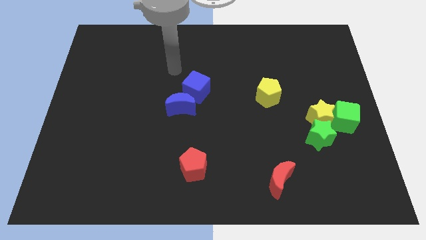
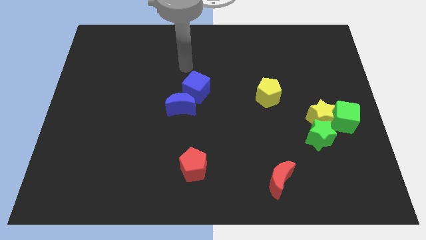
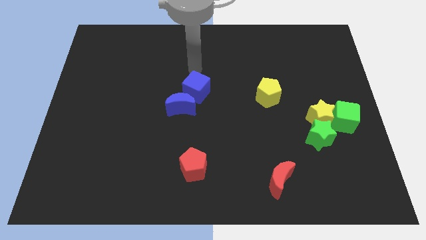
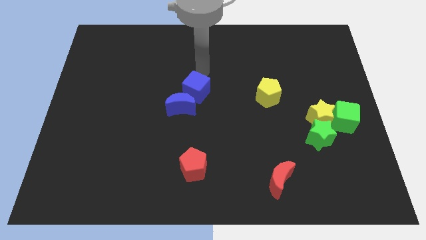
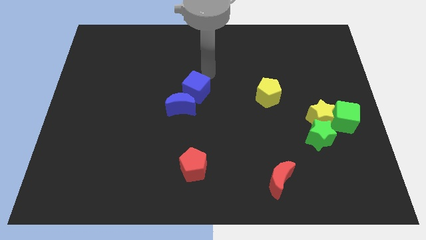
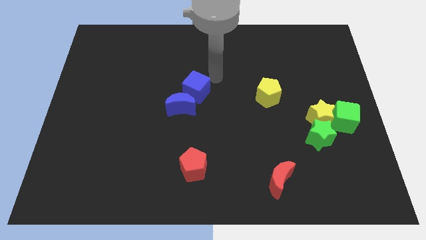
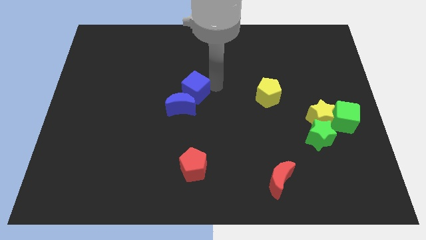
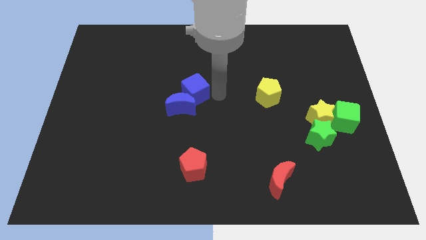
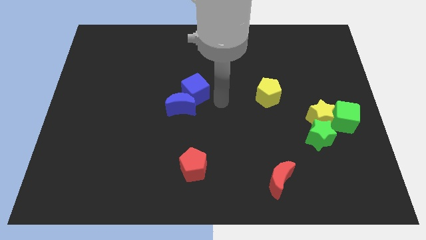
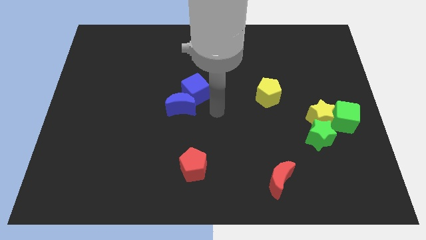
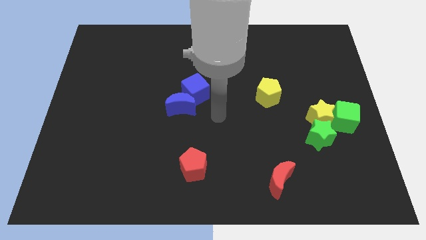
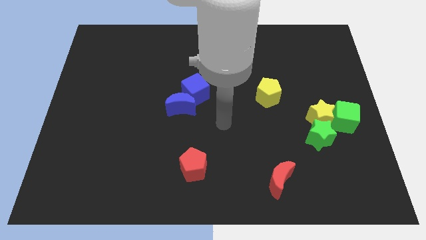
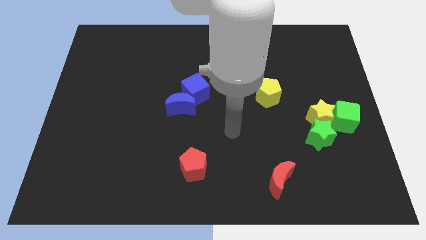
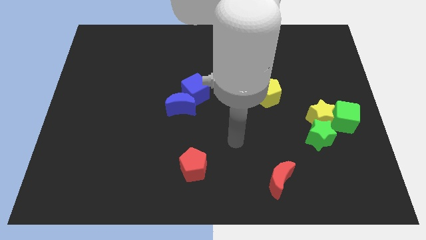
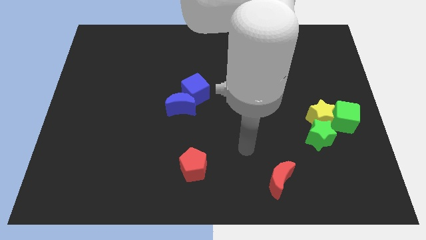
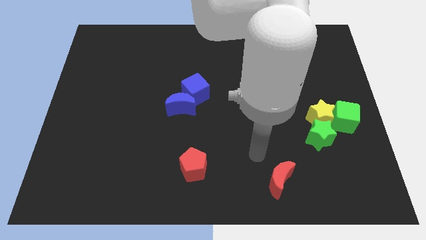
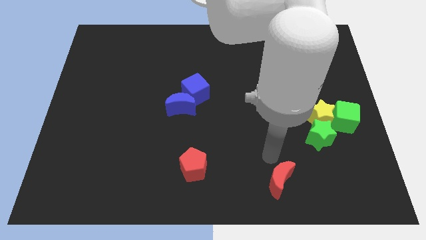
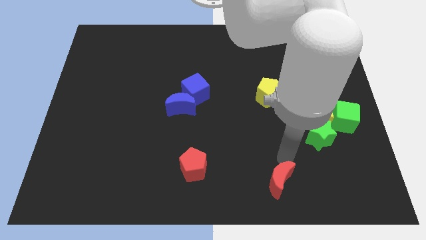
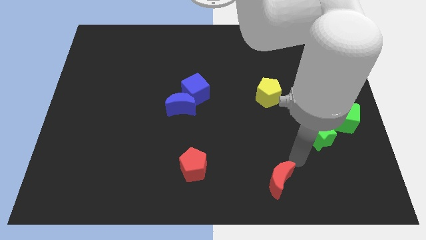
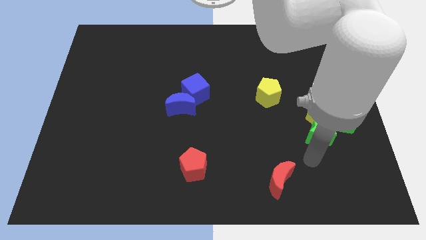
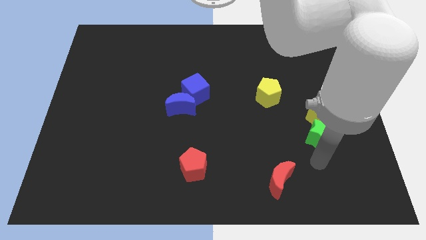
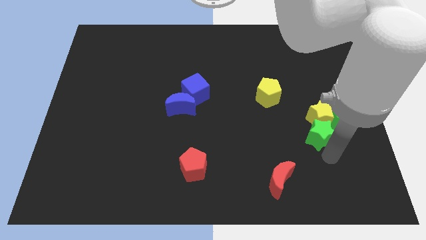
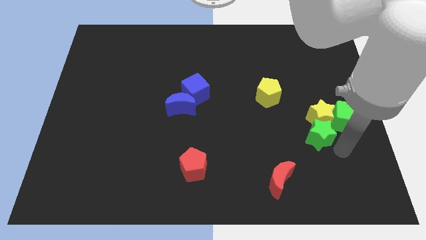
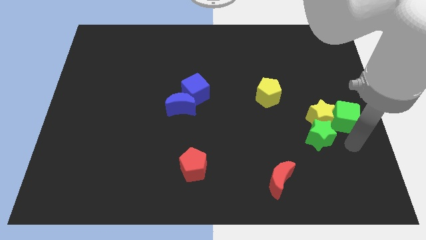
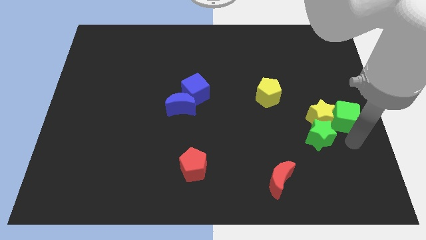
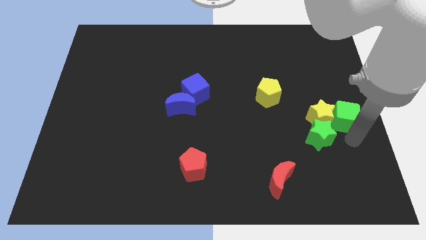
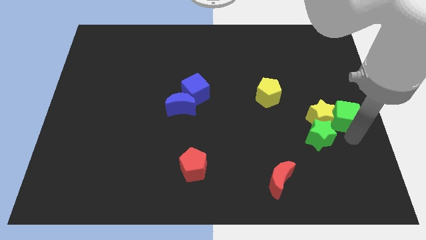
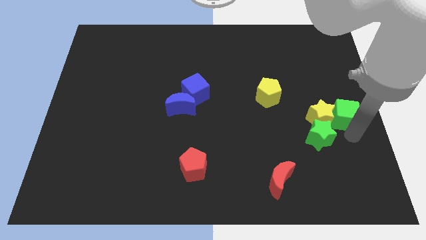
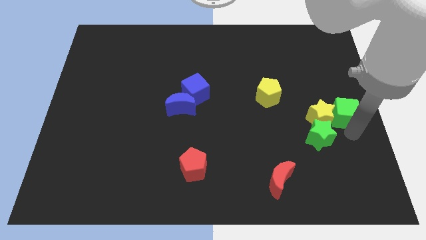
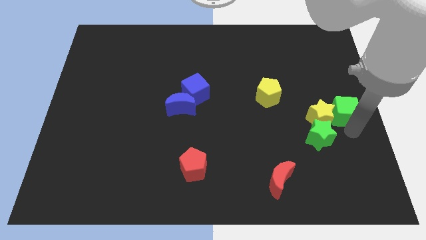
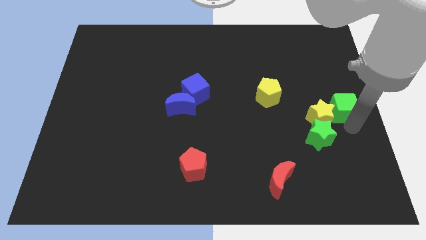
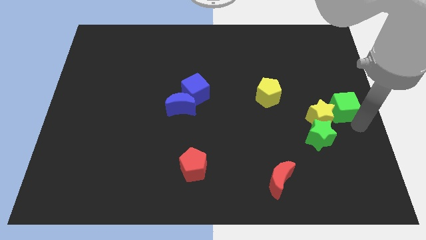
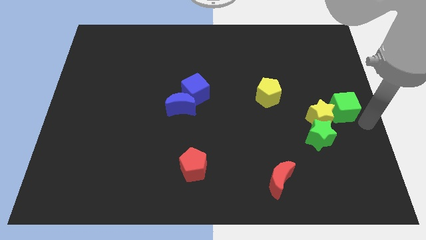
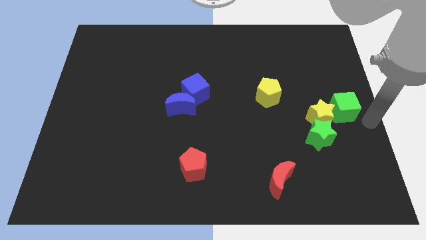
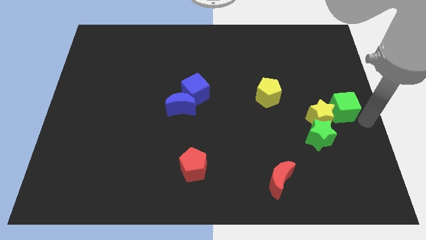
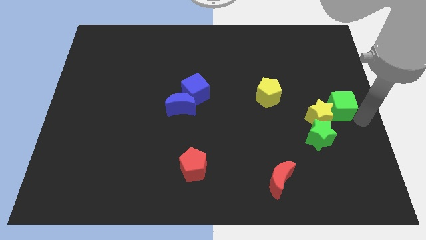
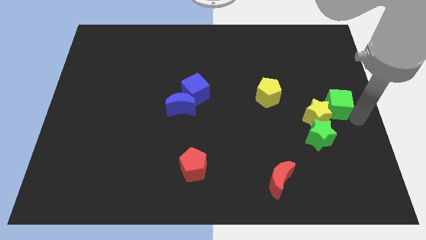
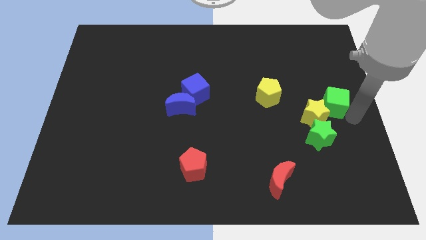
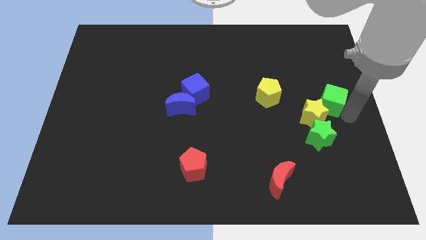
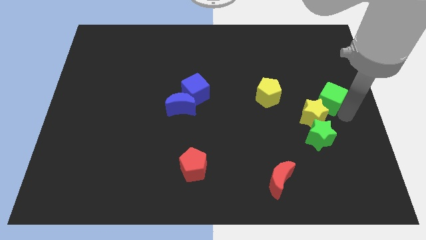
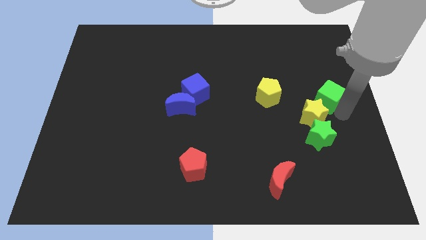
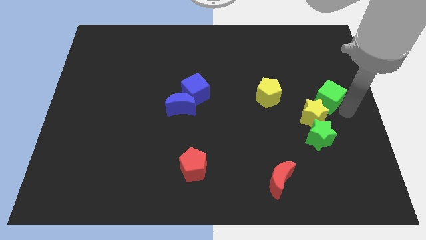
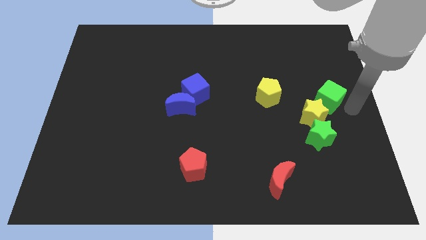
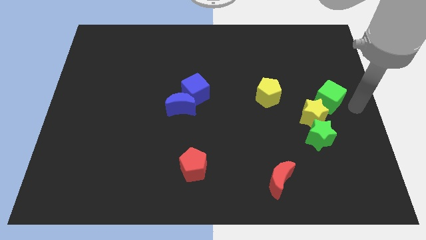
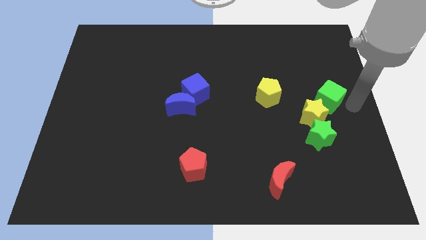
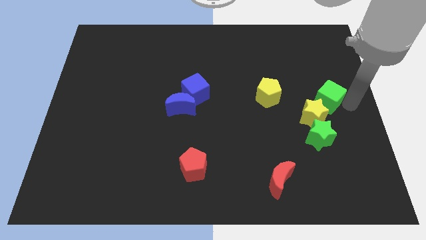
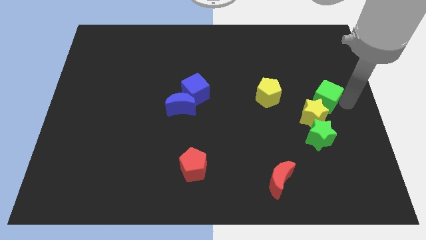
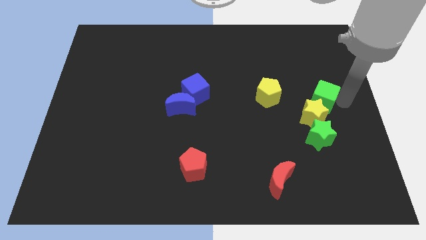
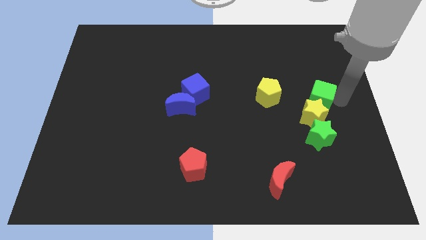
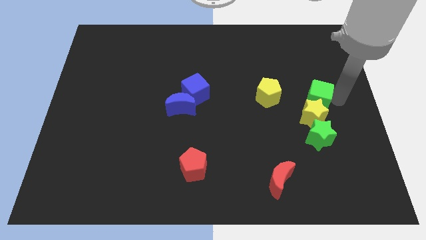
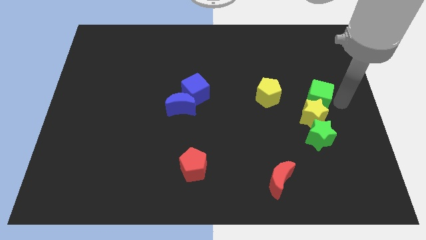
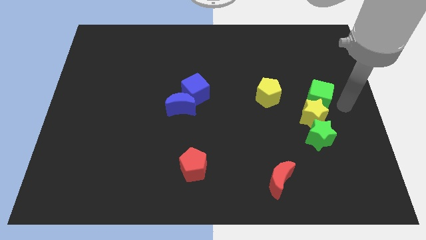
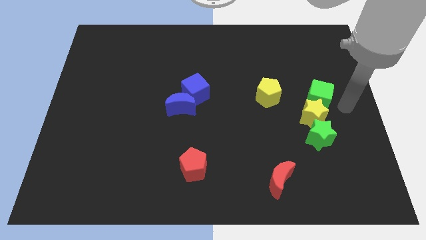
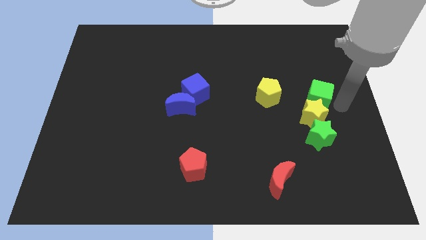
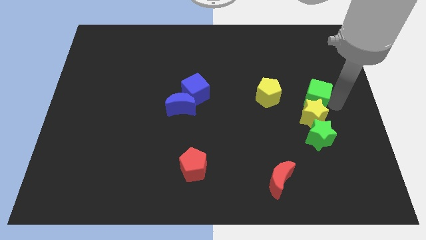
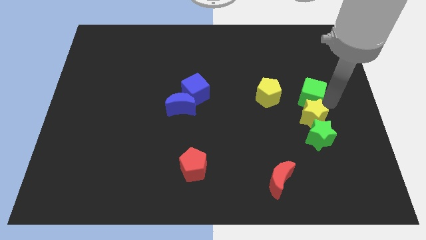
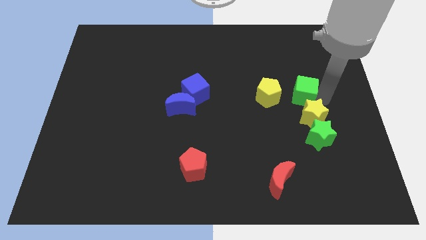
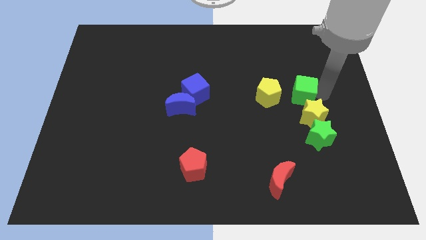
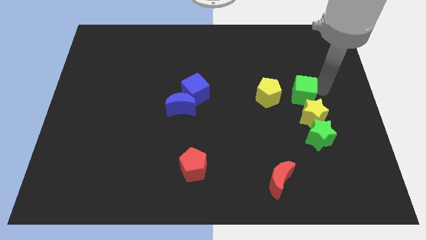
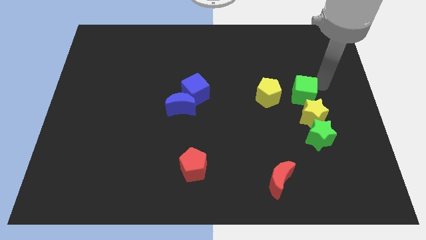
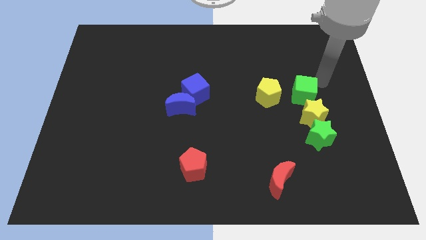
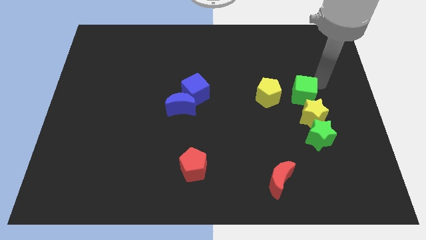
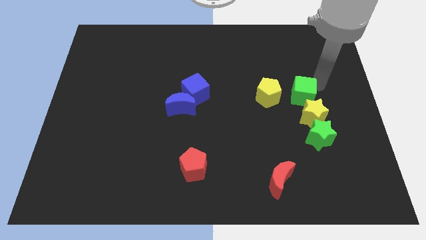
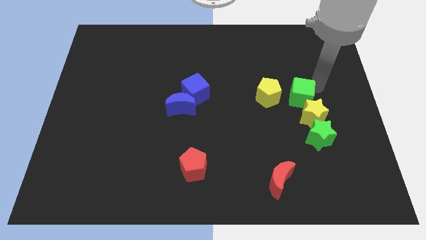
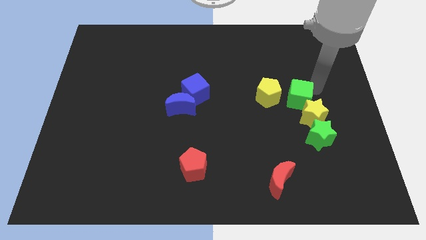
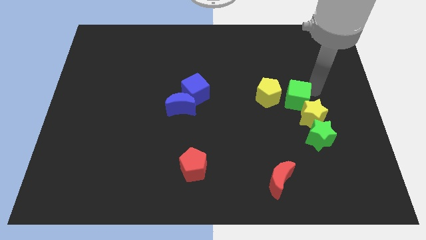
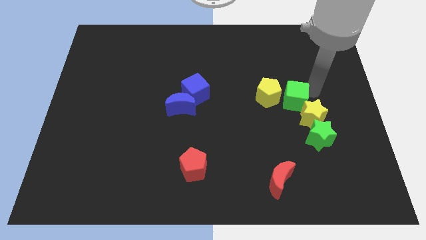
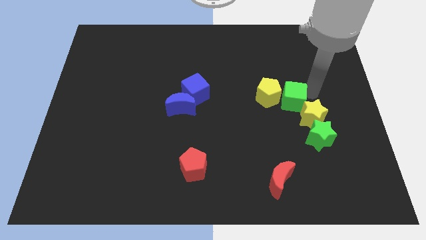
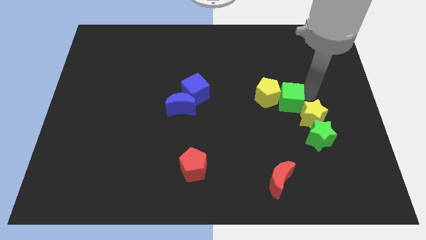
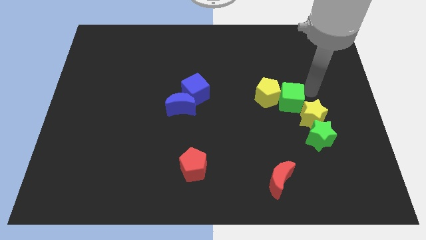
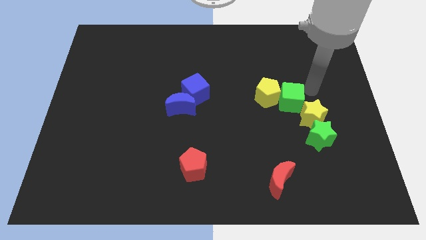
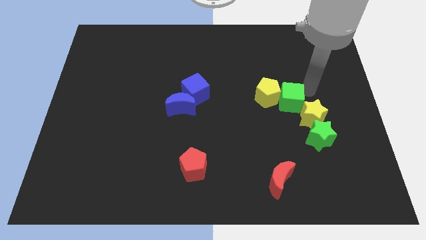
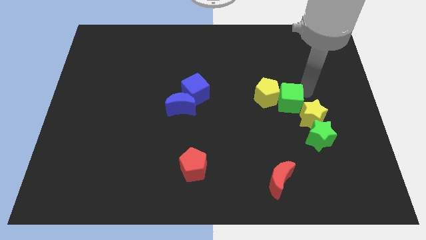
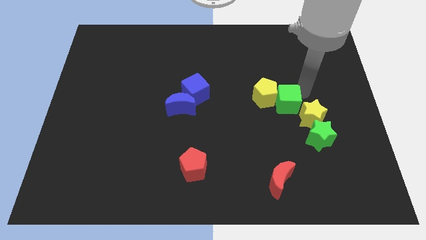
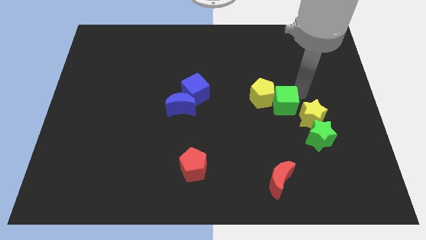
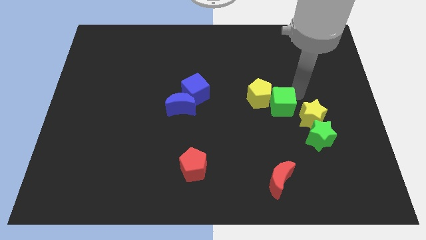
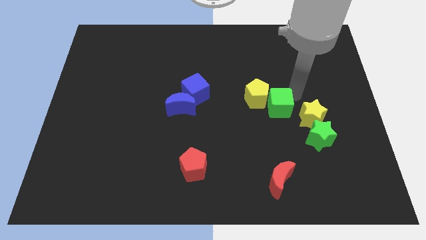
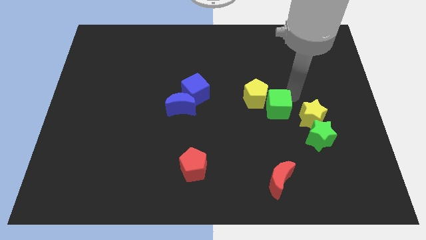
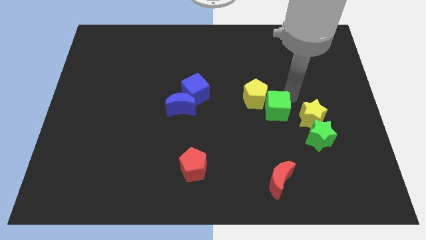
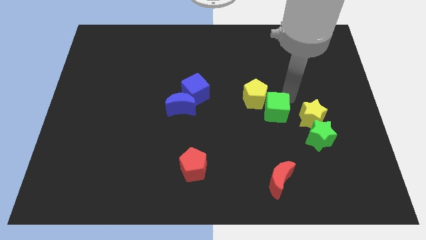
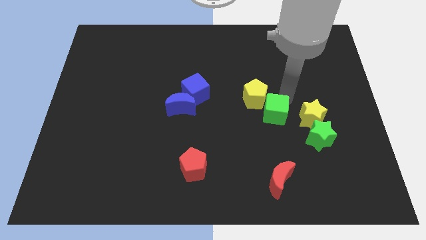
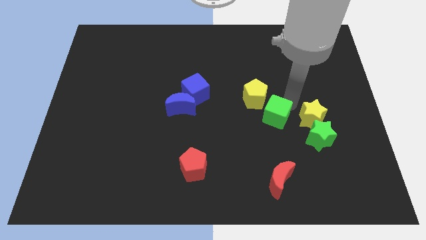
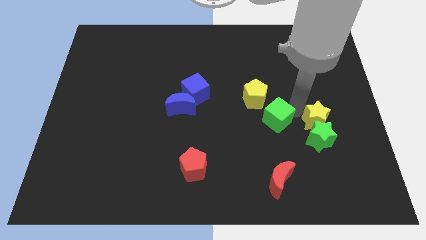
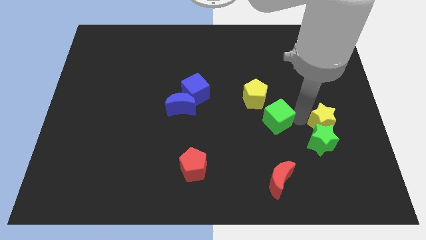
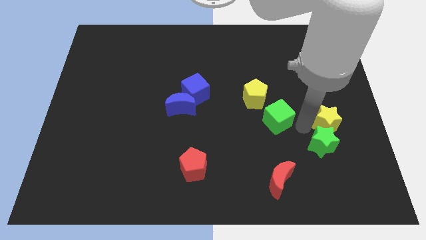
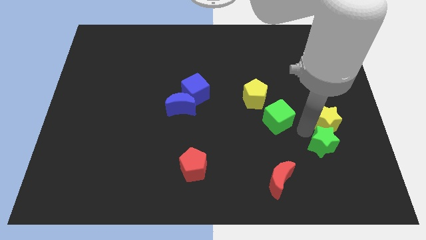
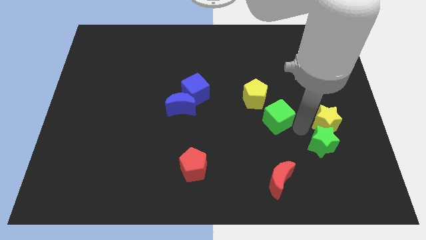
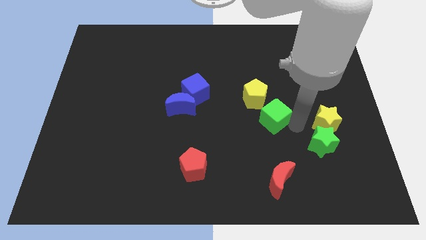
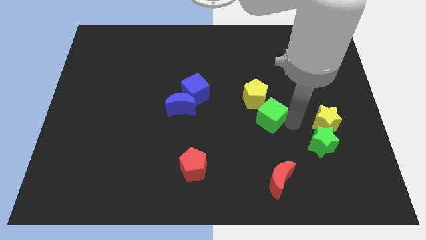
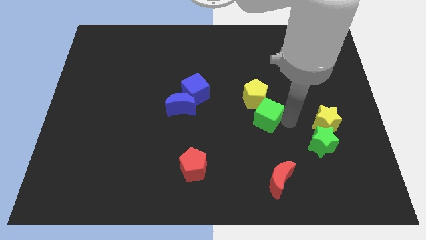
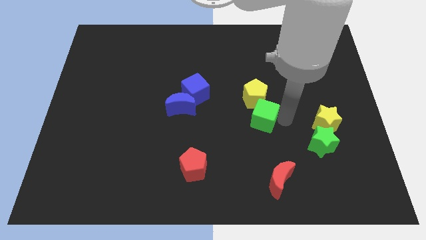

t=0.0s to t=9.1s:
slide the green cube to the middle
